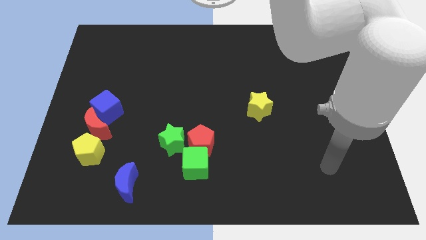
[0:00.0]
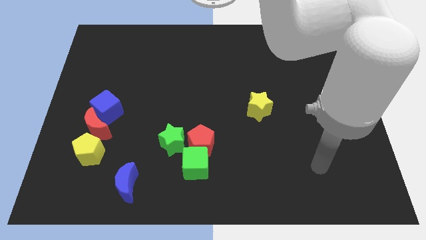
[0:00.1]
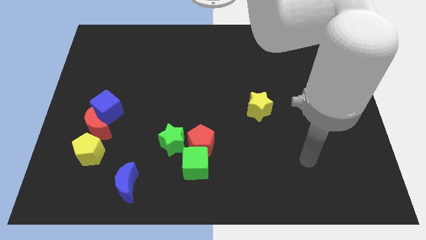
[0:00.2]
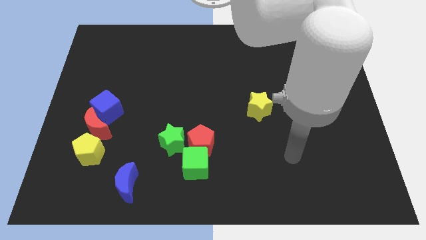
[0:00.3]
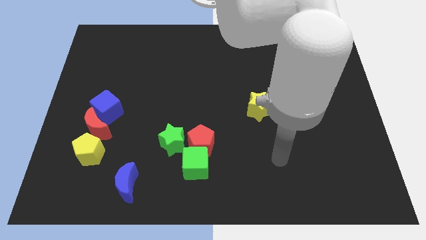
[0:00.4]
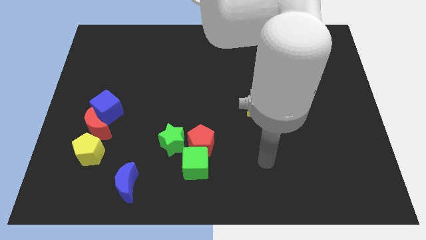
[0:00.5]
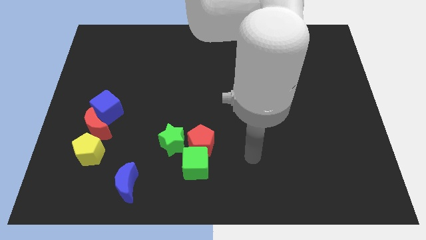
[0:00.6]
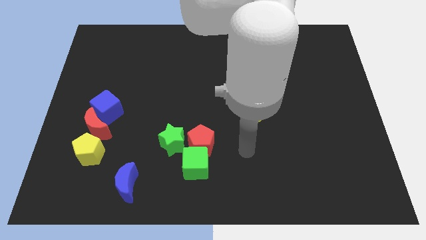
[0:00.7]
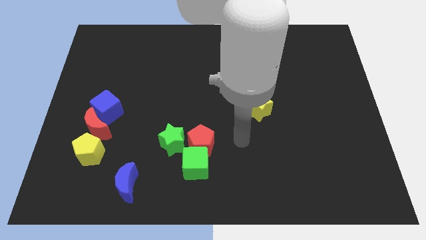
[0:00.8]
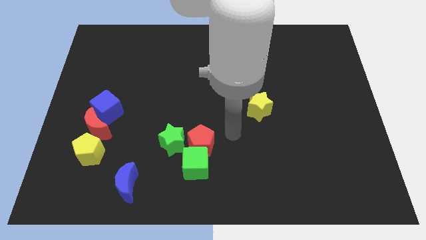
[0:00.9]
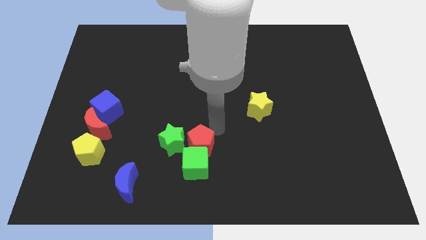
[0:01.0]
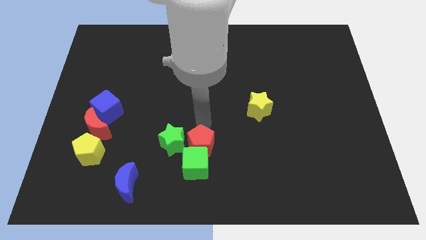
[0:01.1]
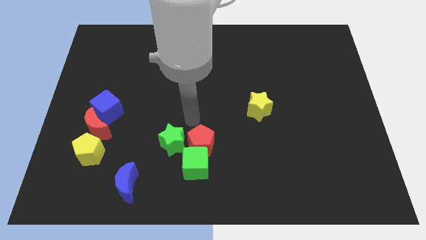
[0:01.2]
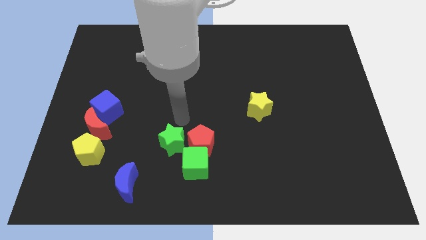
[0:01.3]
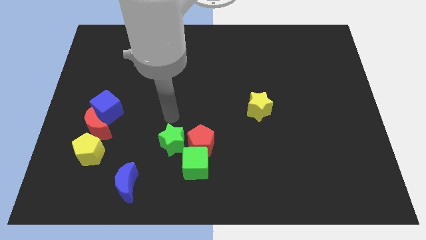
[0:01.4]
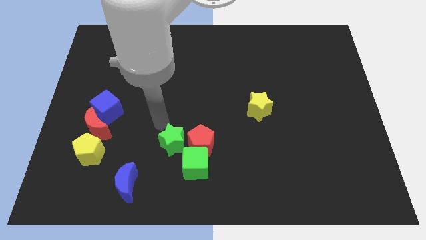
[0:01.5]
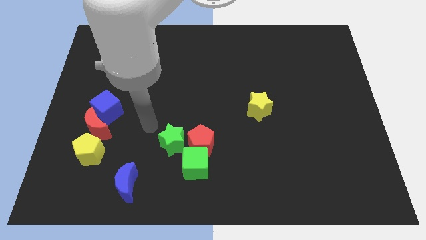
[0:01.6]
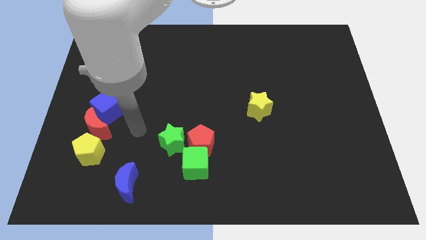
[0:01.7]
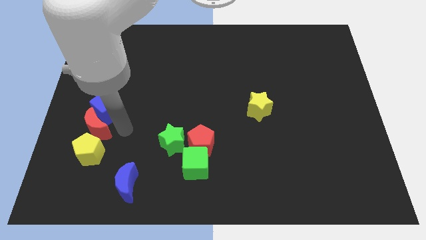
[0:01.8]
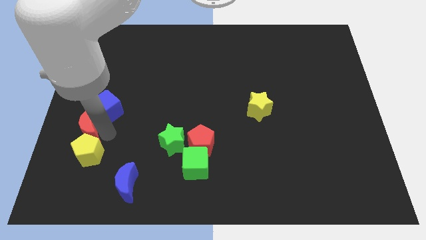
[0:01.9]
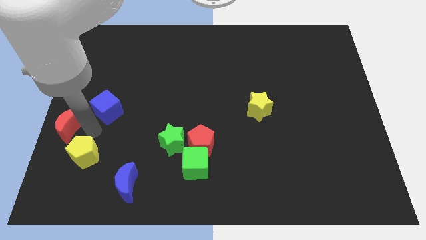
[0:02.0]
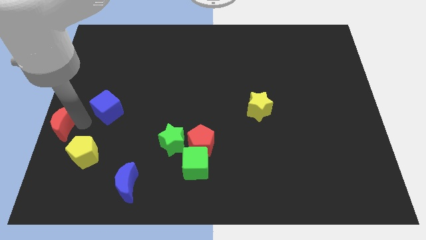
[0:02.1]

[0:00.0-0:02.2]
pull the blue cube apart from the red moon

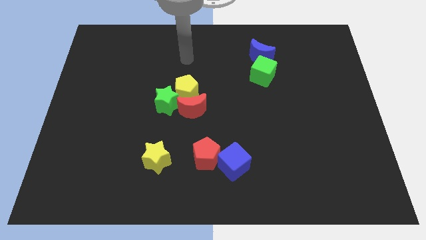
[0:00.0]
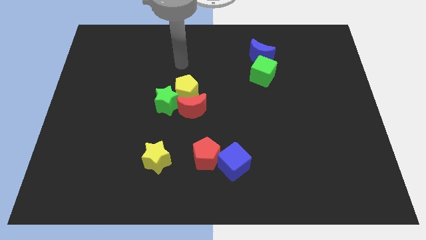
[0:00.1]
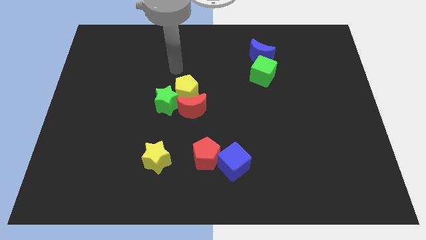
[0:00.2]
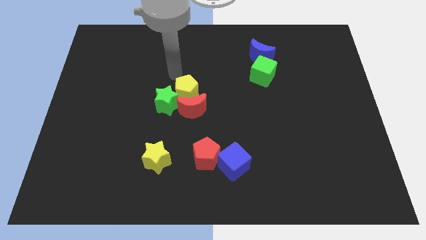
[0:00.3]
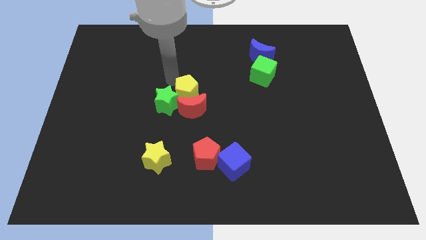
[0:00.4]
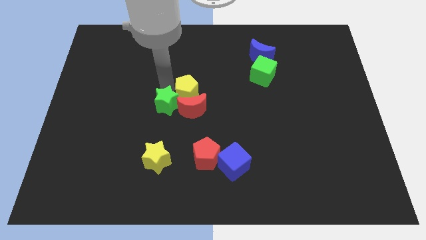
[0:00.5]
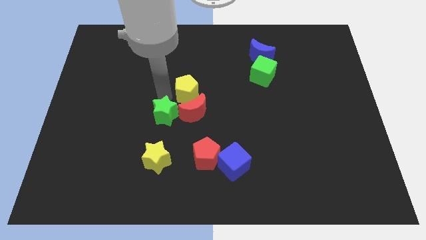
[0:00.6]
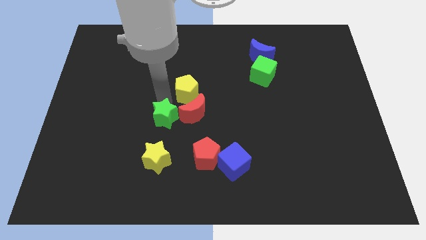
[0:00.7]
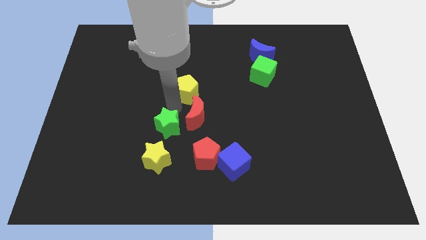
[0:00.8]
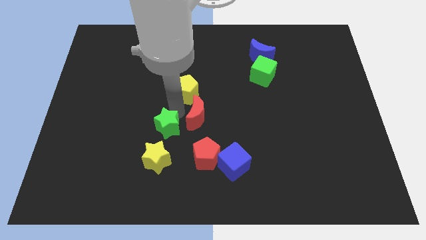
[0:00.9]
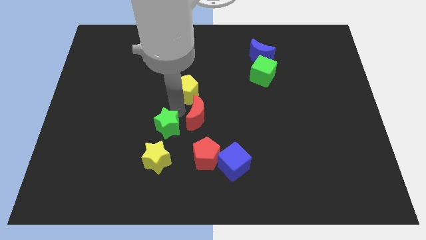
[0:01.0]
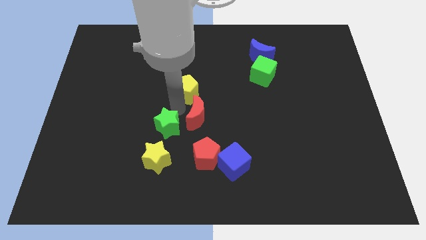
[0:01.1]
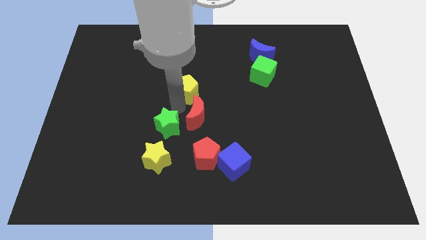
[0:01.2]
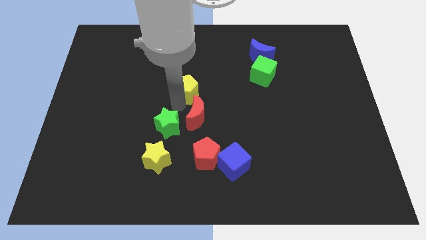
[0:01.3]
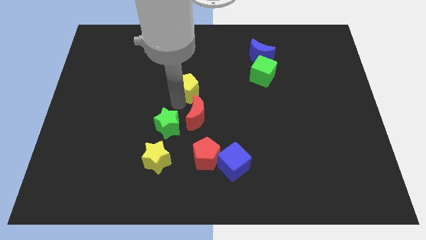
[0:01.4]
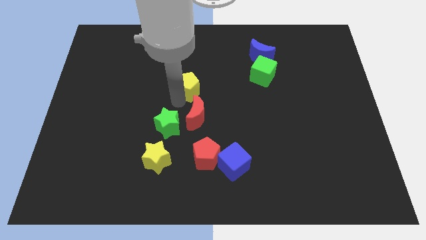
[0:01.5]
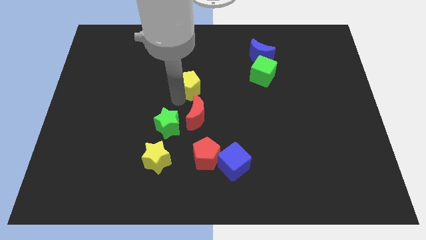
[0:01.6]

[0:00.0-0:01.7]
move the yellow pentagon away from the green star and red moon

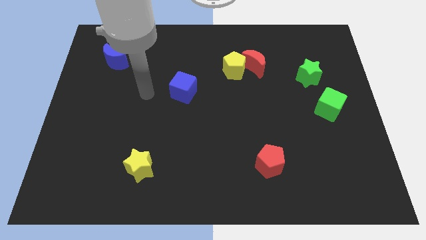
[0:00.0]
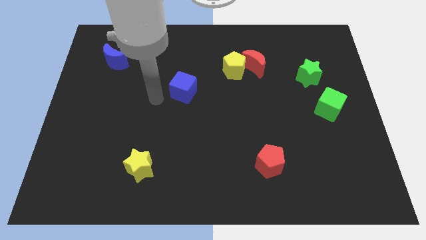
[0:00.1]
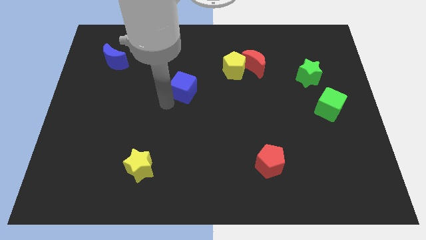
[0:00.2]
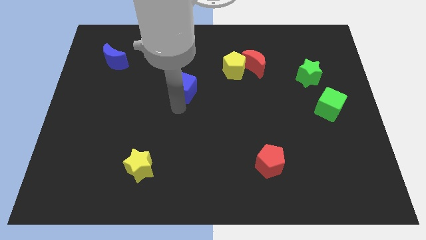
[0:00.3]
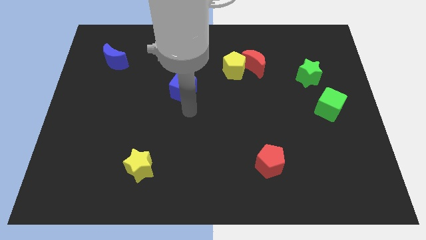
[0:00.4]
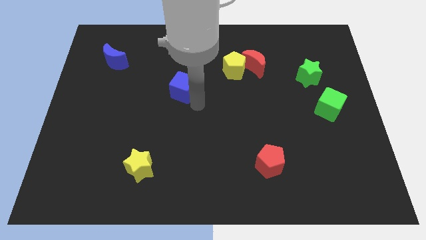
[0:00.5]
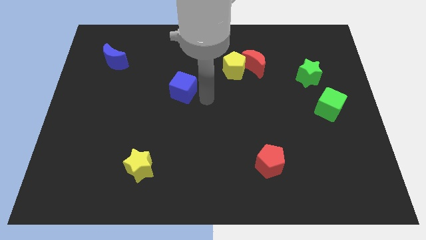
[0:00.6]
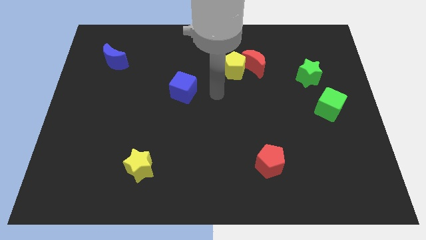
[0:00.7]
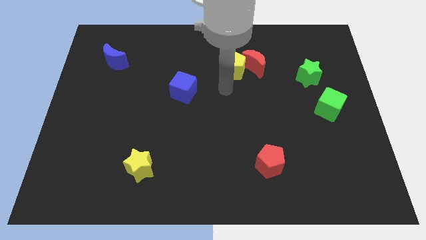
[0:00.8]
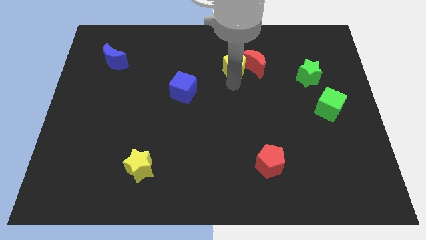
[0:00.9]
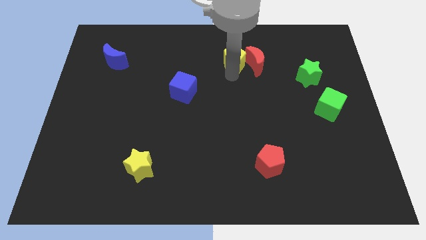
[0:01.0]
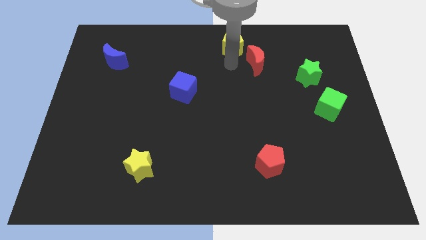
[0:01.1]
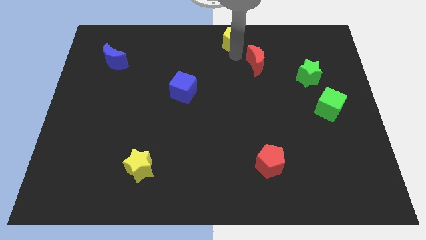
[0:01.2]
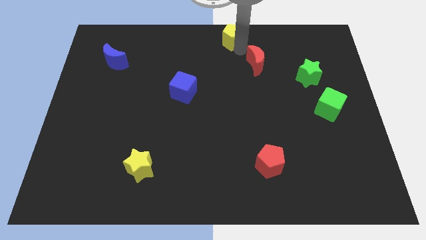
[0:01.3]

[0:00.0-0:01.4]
separate the red moon from the yellow pentagon

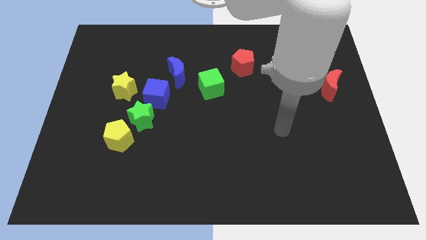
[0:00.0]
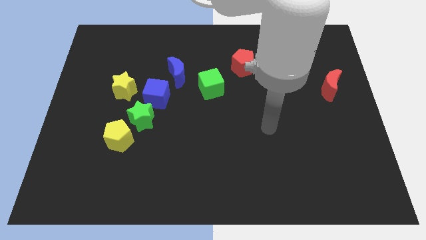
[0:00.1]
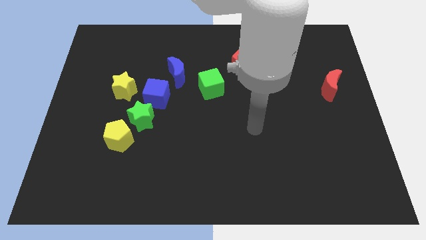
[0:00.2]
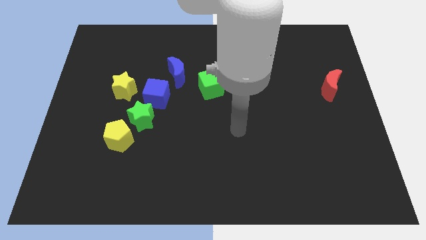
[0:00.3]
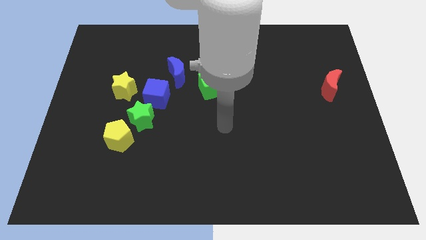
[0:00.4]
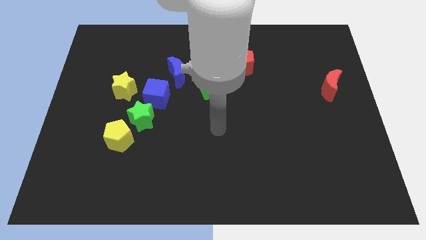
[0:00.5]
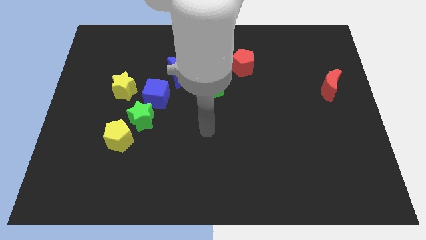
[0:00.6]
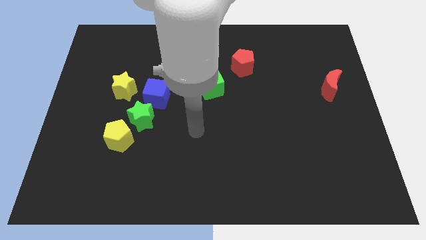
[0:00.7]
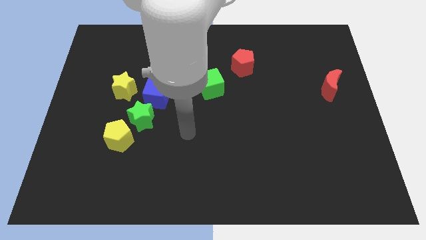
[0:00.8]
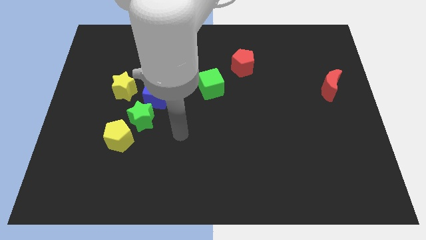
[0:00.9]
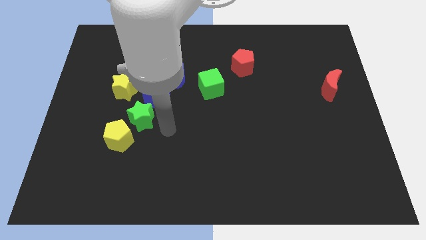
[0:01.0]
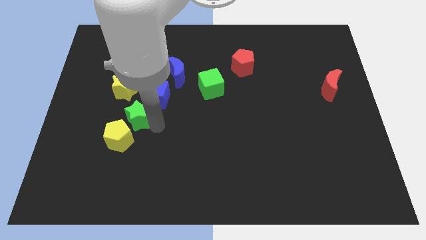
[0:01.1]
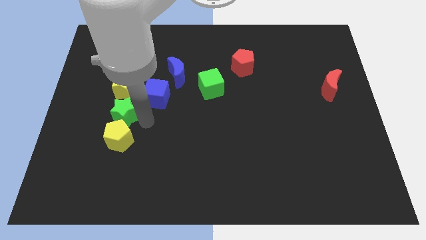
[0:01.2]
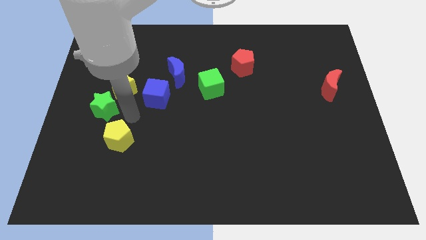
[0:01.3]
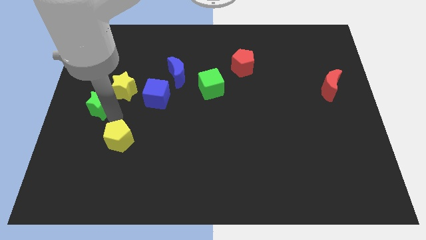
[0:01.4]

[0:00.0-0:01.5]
pull the yellow pentagon apart from the green star

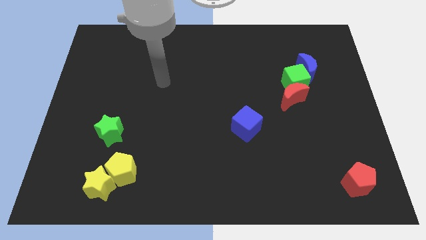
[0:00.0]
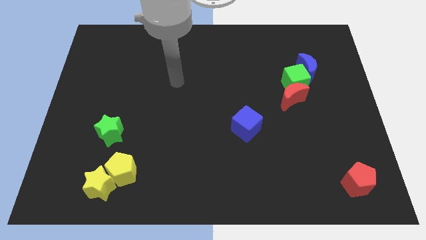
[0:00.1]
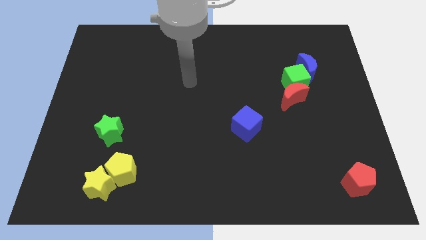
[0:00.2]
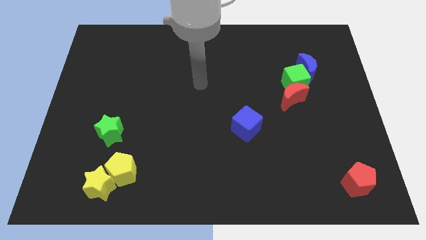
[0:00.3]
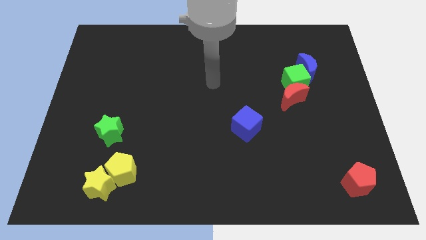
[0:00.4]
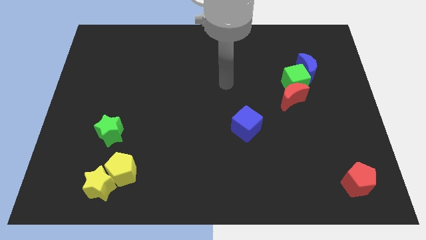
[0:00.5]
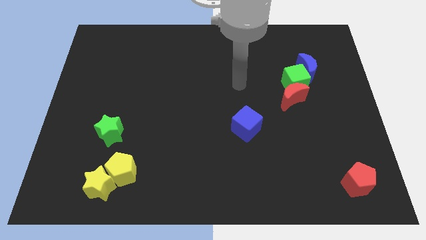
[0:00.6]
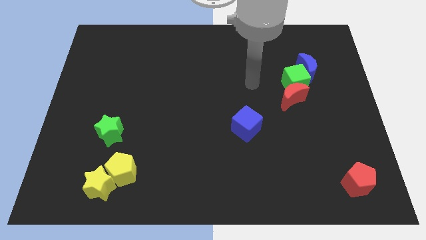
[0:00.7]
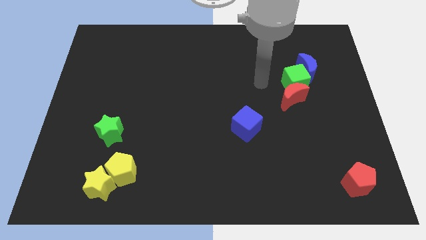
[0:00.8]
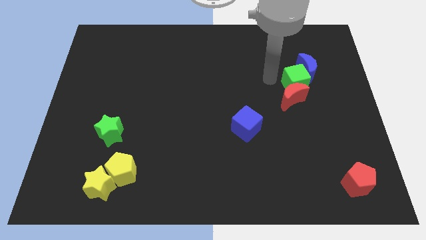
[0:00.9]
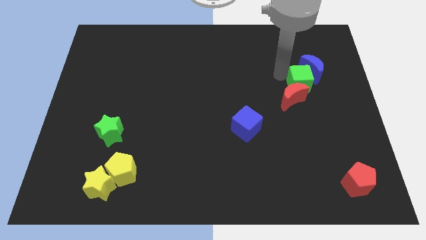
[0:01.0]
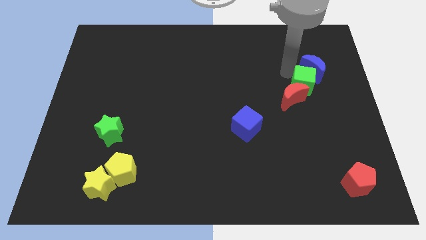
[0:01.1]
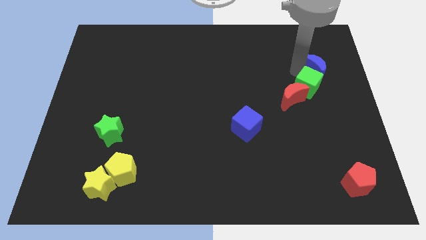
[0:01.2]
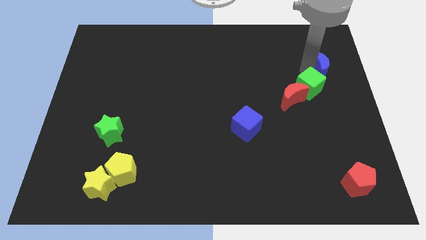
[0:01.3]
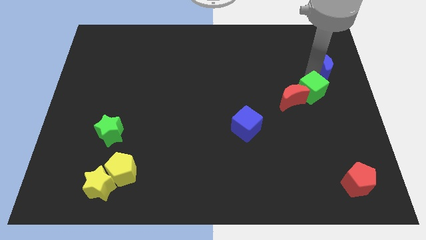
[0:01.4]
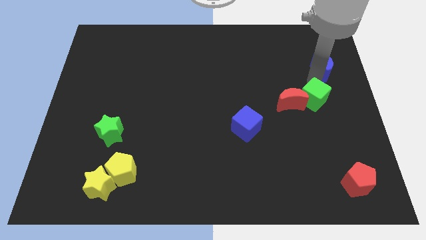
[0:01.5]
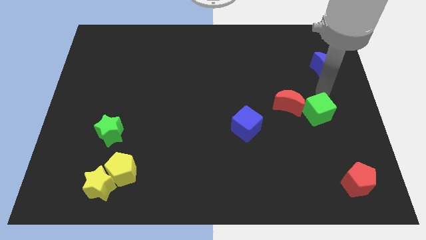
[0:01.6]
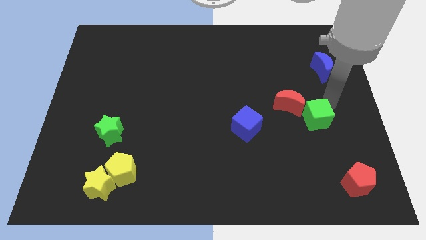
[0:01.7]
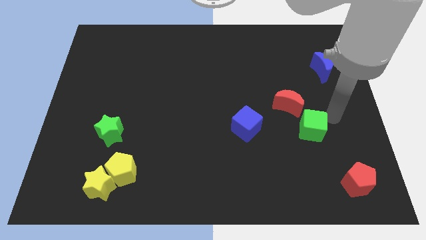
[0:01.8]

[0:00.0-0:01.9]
separate the green cube from the blue moon and red moon

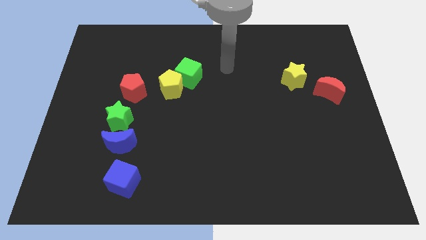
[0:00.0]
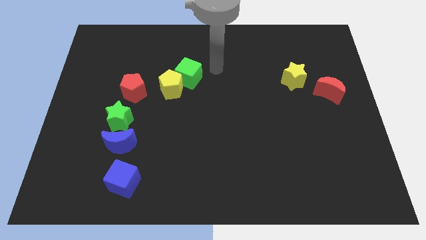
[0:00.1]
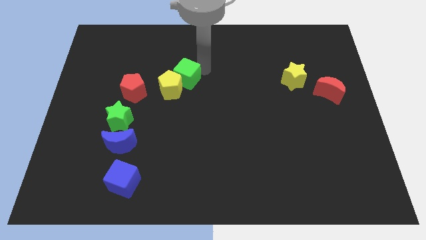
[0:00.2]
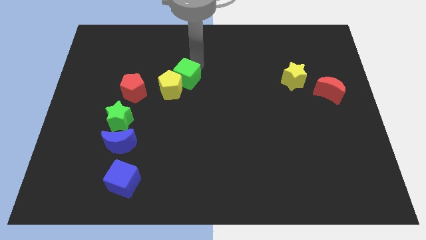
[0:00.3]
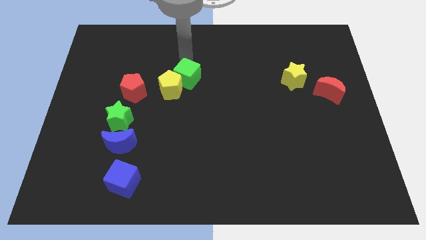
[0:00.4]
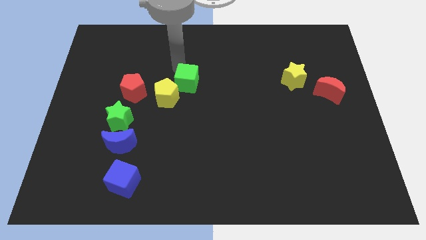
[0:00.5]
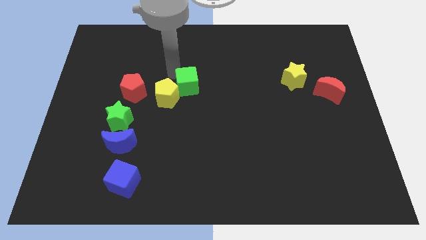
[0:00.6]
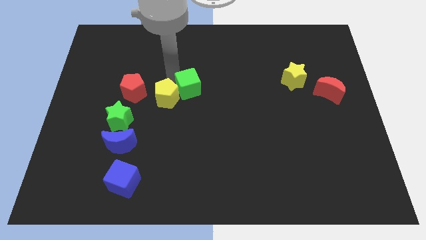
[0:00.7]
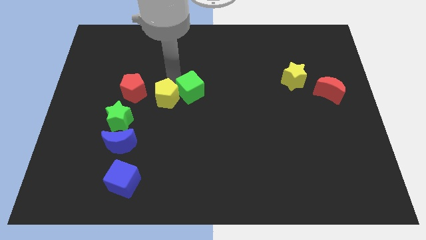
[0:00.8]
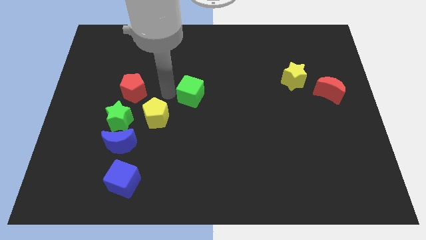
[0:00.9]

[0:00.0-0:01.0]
move the green cube away from the yellow pentagon
